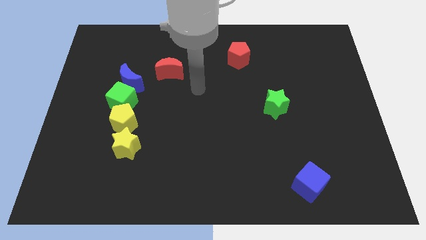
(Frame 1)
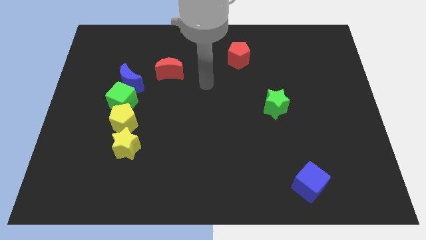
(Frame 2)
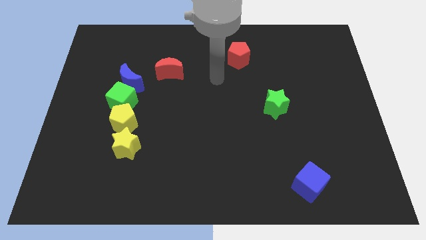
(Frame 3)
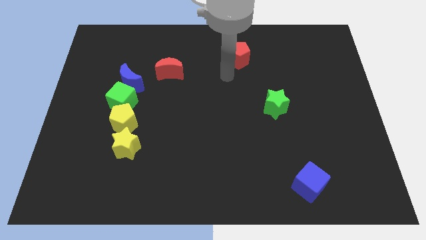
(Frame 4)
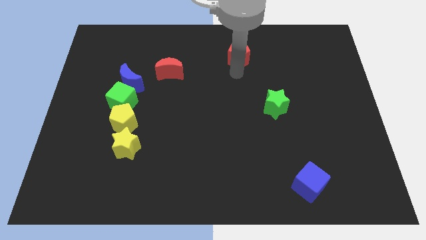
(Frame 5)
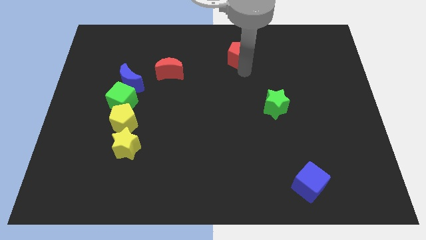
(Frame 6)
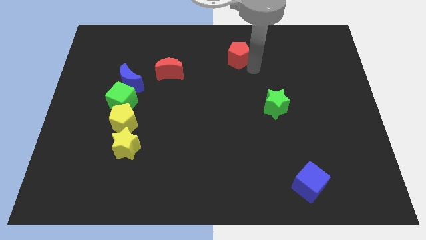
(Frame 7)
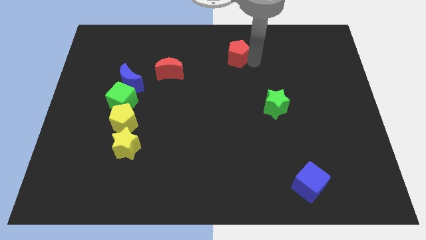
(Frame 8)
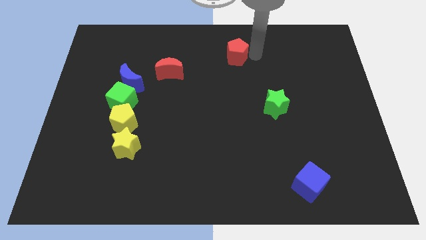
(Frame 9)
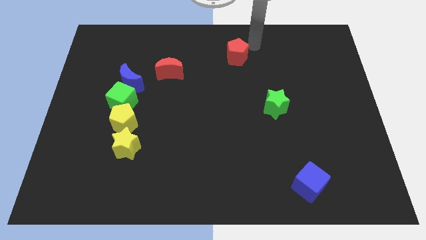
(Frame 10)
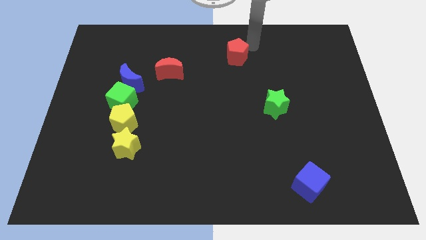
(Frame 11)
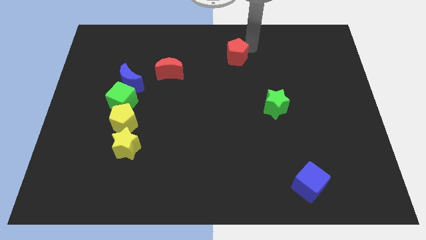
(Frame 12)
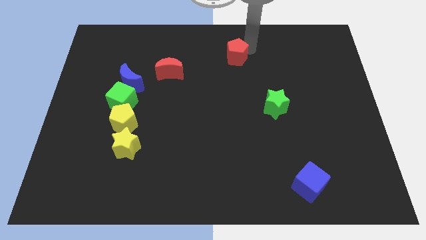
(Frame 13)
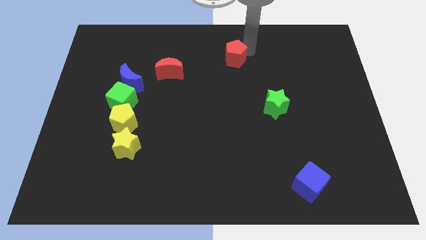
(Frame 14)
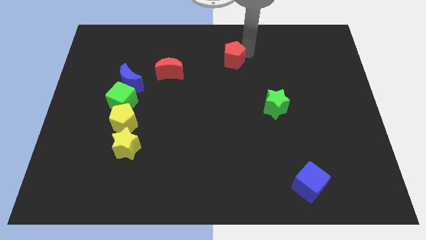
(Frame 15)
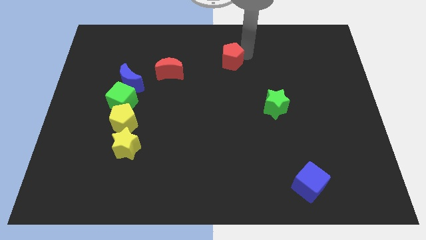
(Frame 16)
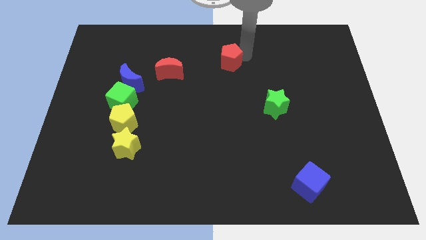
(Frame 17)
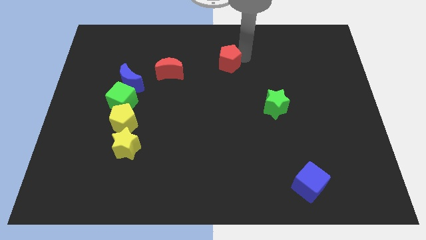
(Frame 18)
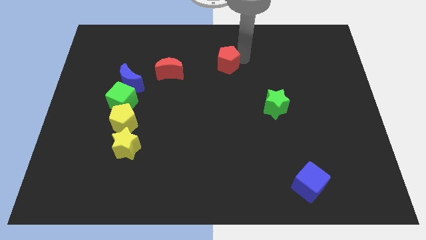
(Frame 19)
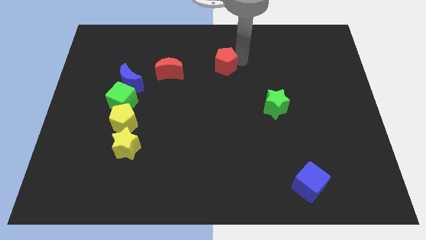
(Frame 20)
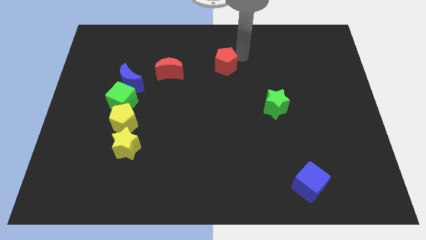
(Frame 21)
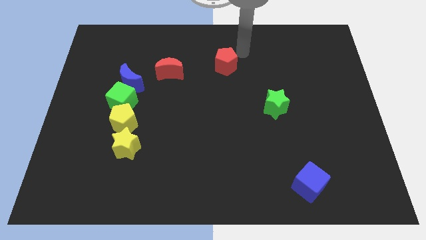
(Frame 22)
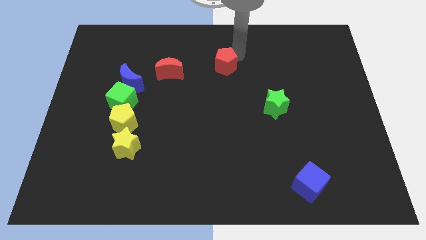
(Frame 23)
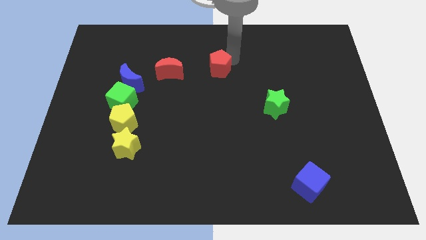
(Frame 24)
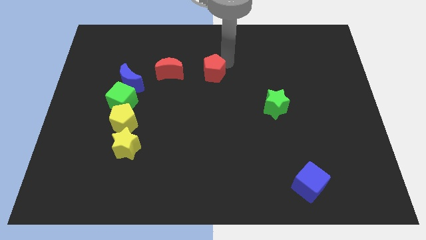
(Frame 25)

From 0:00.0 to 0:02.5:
move the red pentagon downwards and then left a little bit

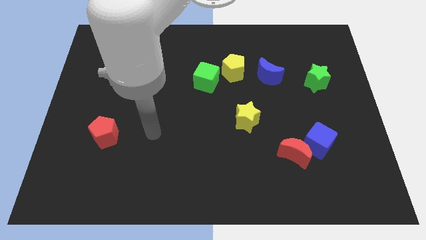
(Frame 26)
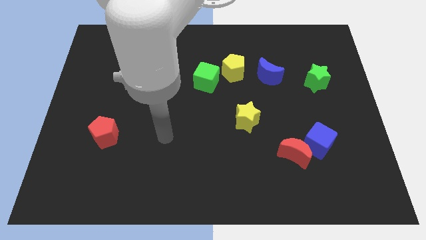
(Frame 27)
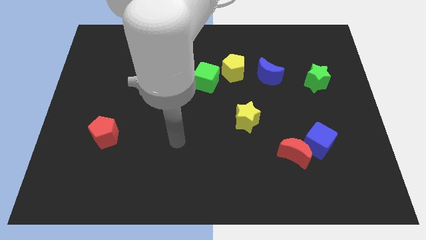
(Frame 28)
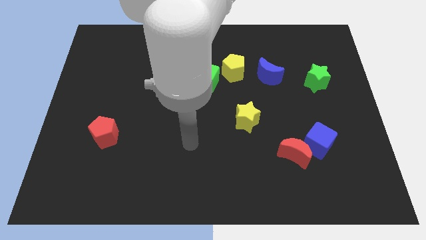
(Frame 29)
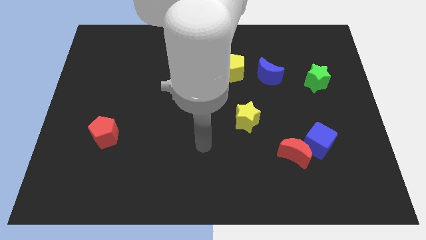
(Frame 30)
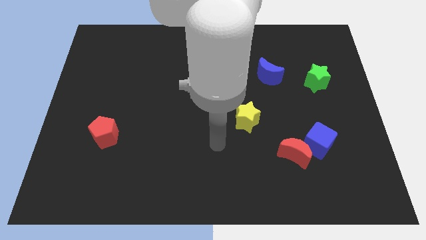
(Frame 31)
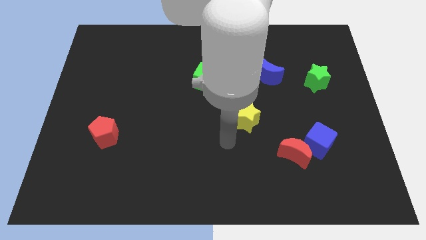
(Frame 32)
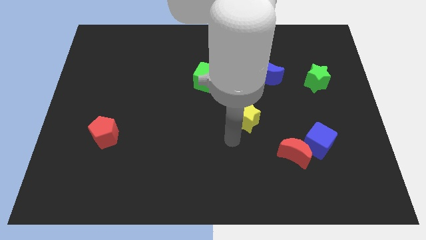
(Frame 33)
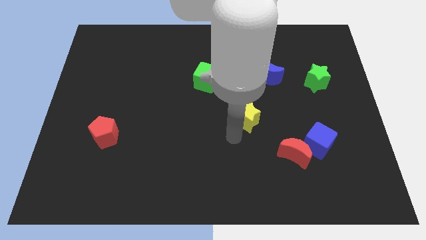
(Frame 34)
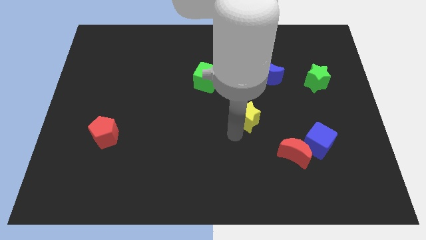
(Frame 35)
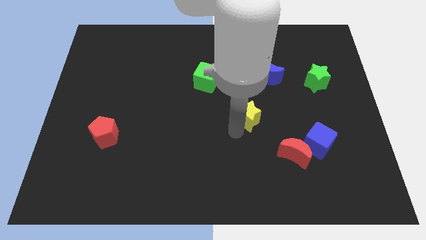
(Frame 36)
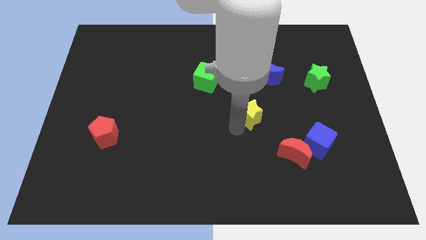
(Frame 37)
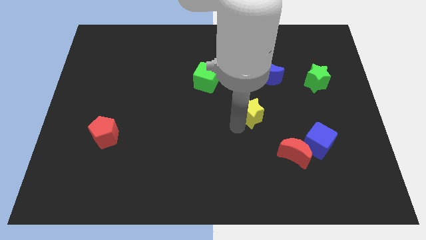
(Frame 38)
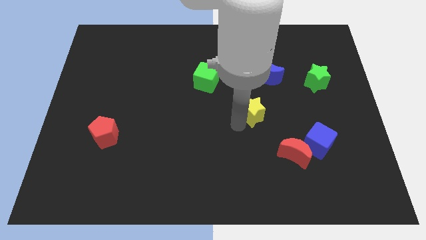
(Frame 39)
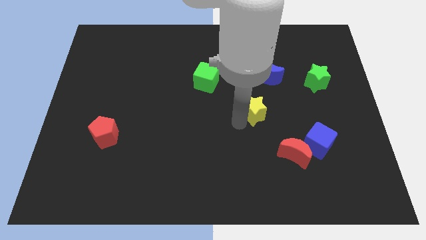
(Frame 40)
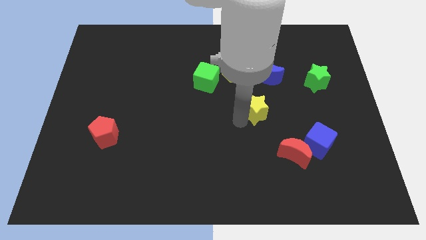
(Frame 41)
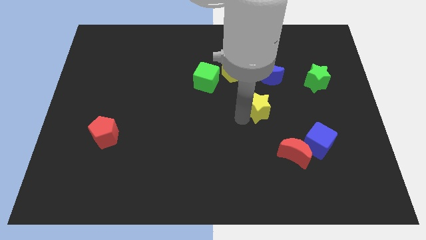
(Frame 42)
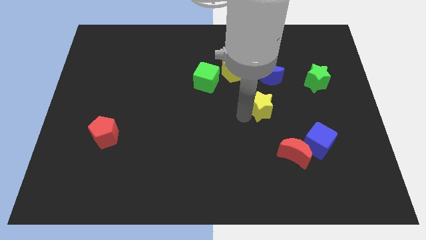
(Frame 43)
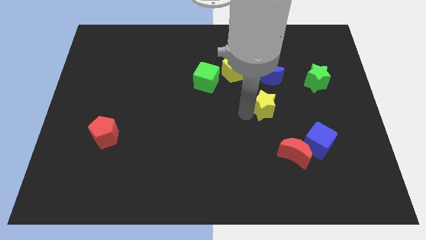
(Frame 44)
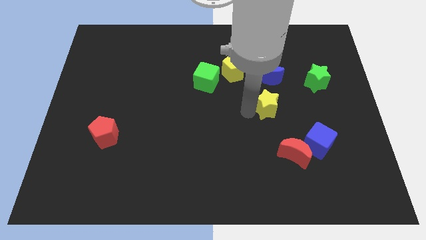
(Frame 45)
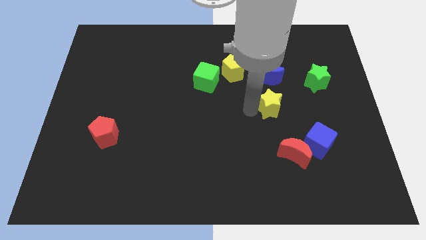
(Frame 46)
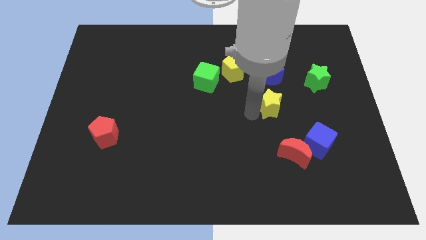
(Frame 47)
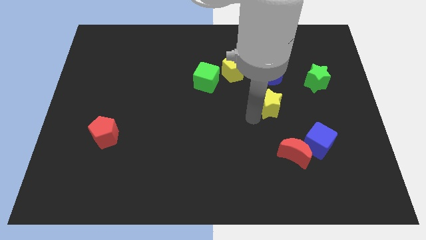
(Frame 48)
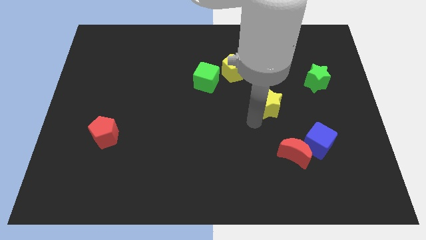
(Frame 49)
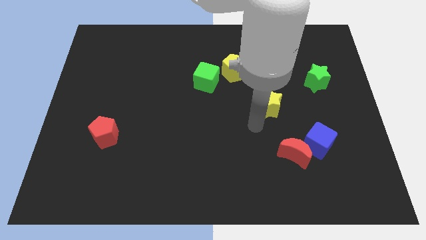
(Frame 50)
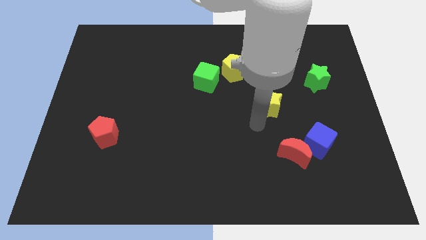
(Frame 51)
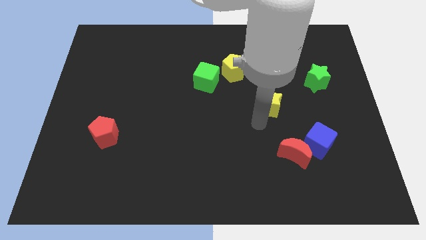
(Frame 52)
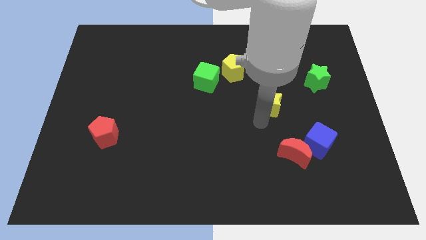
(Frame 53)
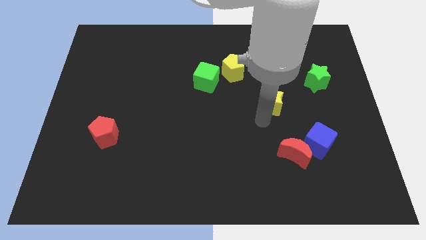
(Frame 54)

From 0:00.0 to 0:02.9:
move the yellow star somewhat upwards and right diagonally

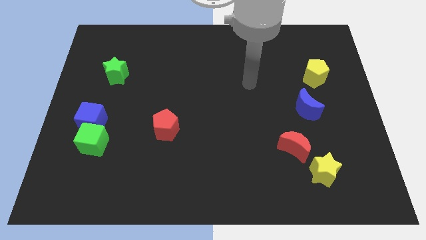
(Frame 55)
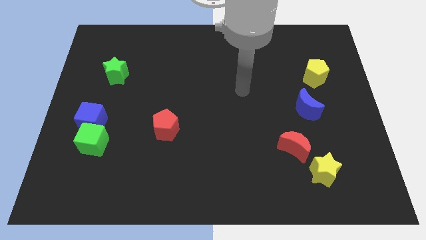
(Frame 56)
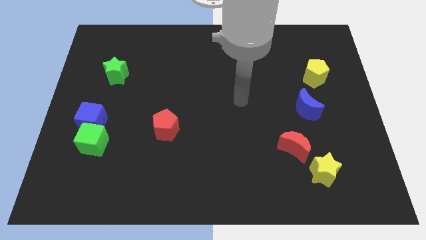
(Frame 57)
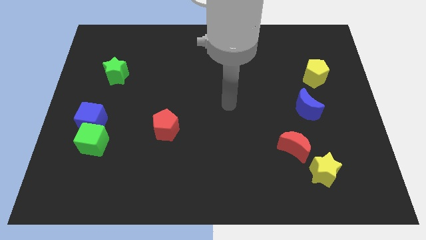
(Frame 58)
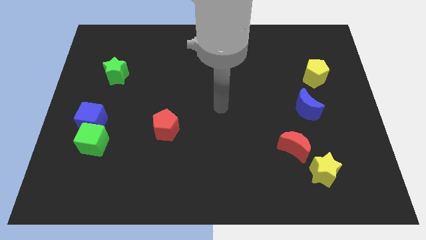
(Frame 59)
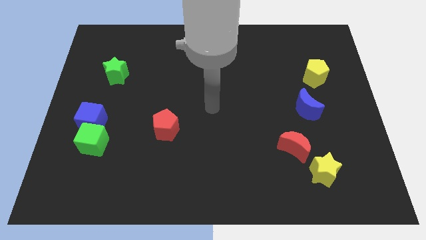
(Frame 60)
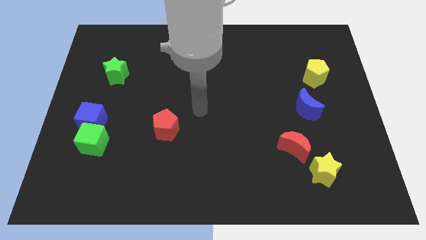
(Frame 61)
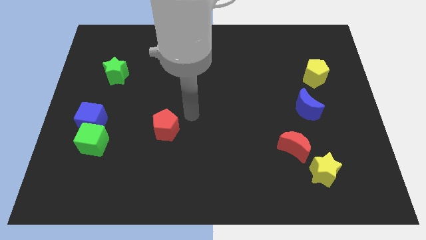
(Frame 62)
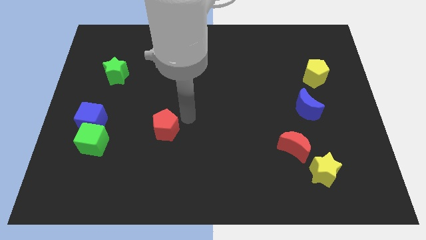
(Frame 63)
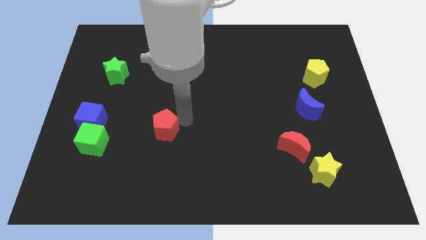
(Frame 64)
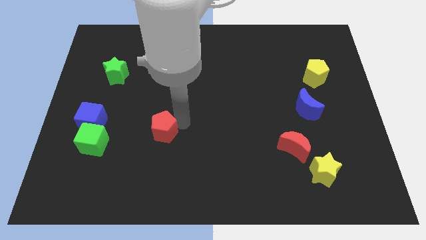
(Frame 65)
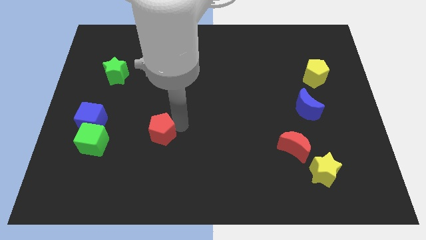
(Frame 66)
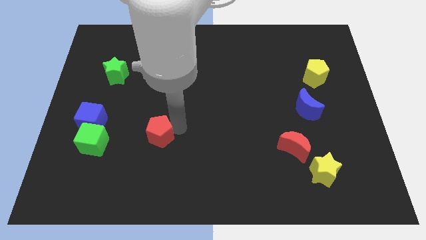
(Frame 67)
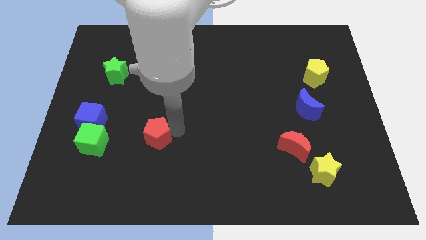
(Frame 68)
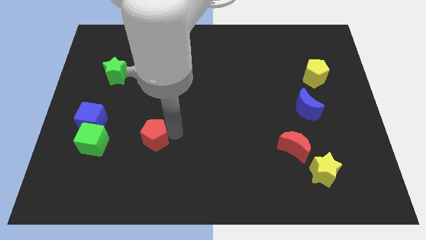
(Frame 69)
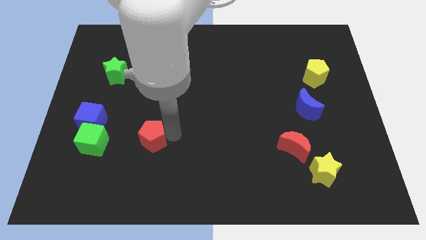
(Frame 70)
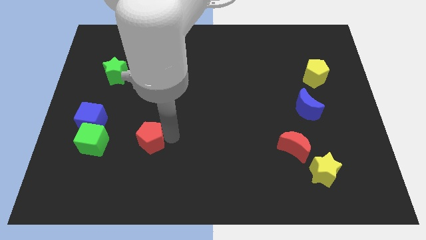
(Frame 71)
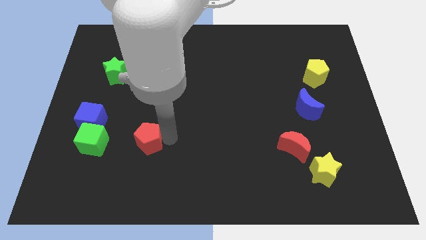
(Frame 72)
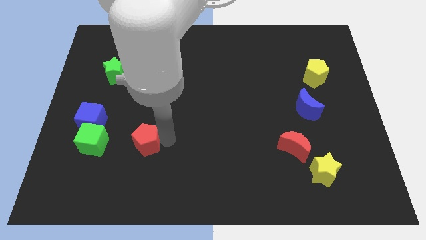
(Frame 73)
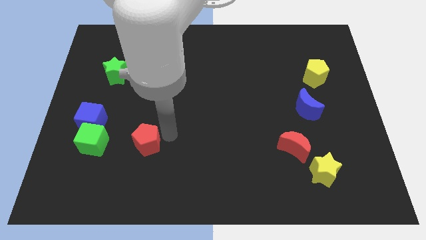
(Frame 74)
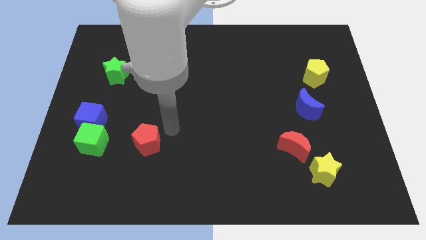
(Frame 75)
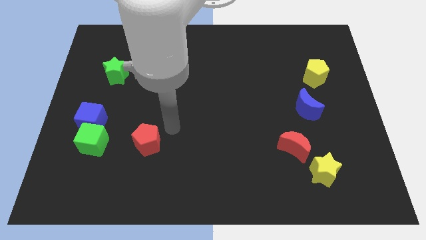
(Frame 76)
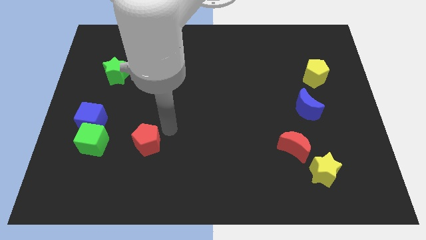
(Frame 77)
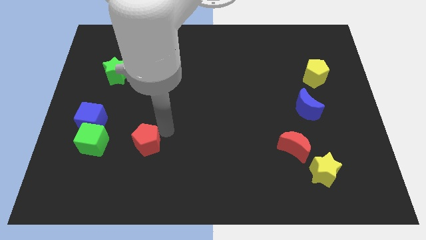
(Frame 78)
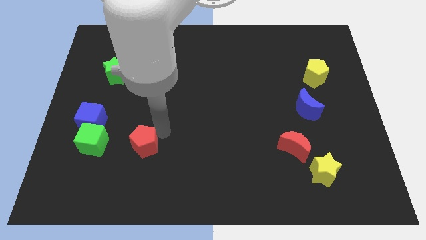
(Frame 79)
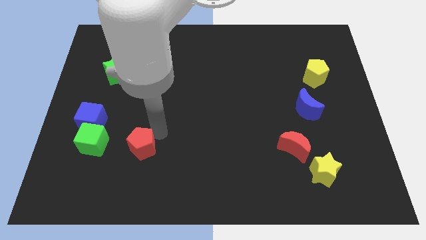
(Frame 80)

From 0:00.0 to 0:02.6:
slightly push the red pentagon diagonally downwards and to the left
